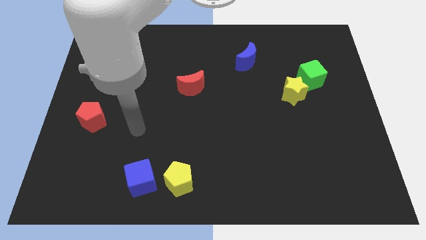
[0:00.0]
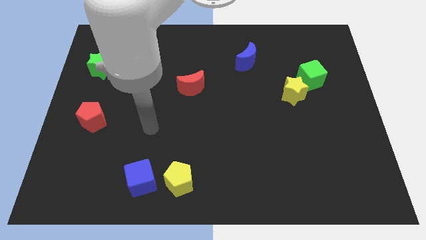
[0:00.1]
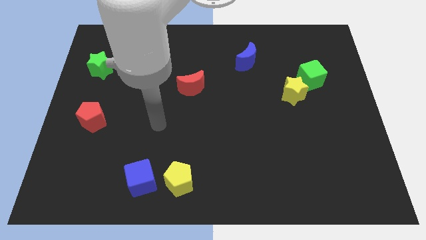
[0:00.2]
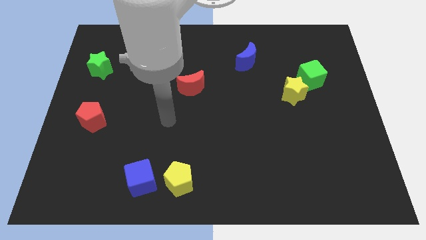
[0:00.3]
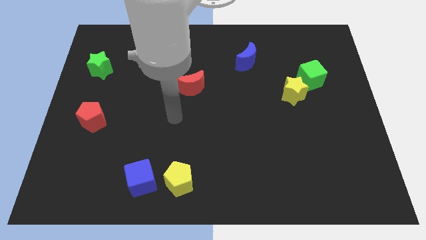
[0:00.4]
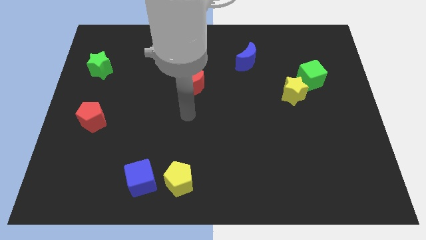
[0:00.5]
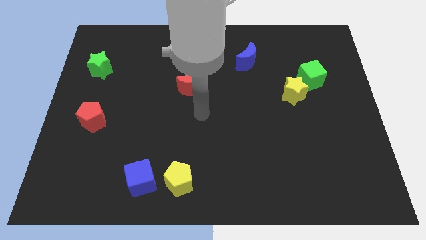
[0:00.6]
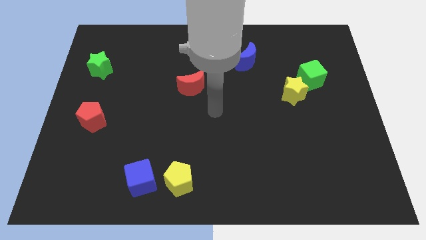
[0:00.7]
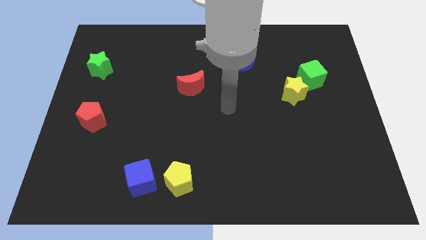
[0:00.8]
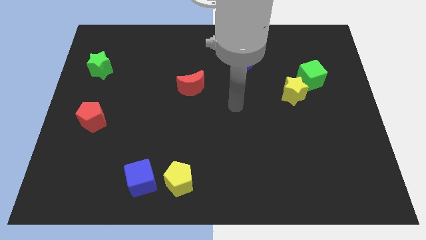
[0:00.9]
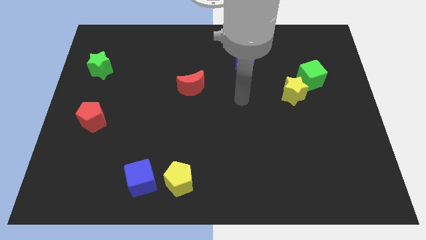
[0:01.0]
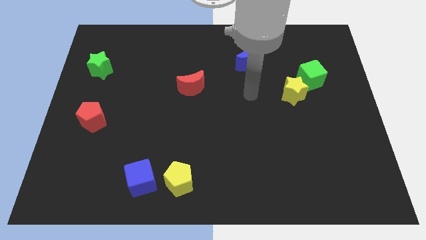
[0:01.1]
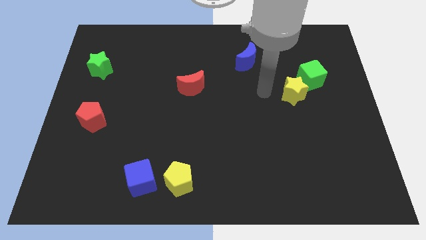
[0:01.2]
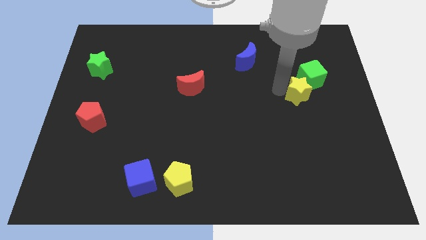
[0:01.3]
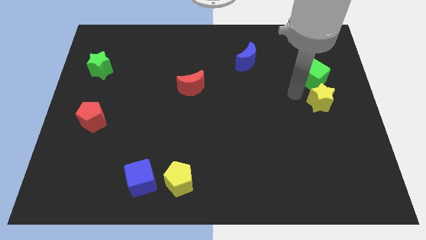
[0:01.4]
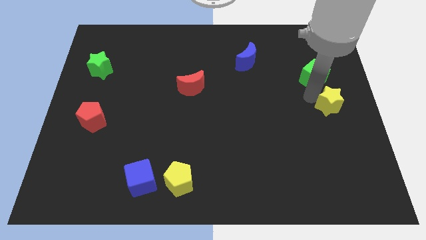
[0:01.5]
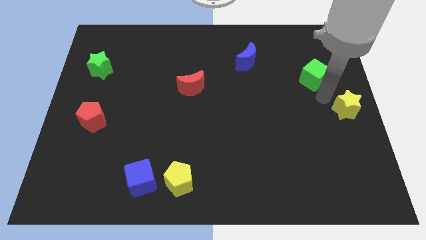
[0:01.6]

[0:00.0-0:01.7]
move the green cube away from the yellow star

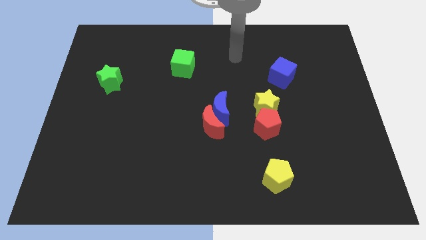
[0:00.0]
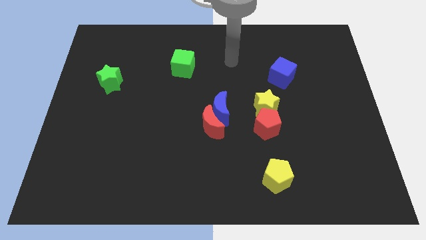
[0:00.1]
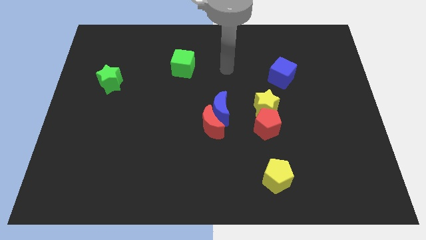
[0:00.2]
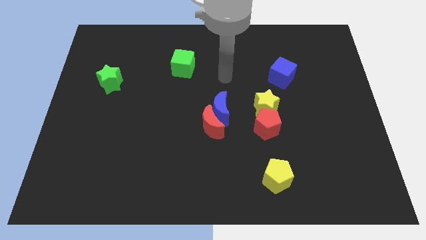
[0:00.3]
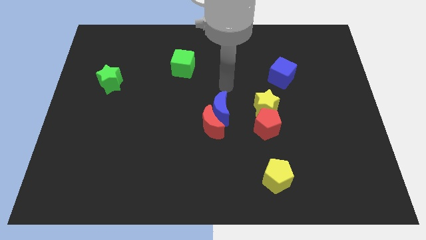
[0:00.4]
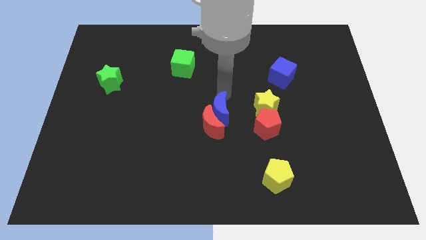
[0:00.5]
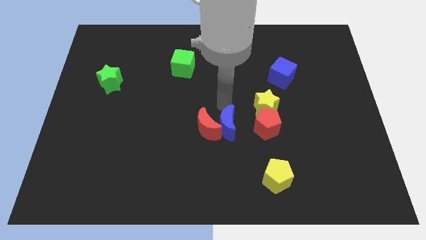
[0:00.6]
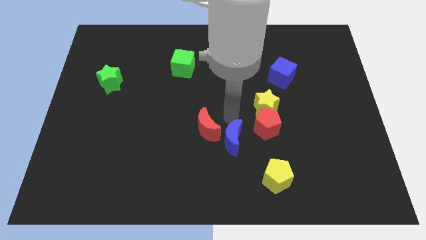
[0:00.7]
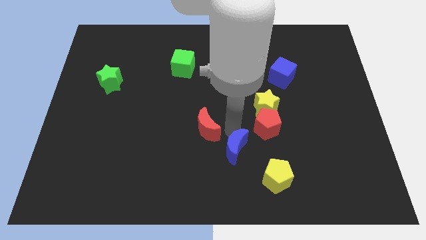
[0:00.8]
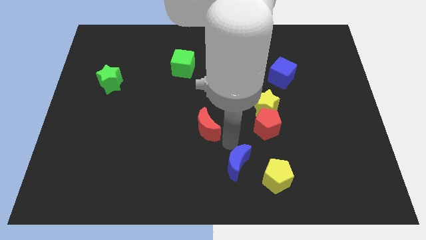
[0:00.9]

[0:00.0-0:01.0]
separate the red moon from the blue moon

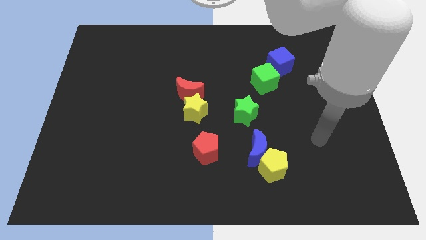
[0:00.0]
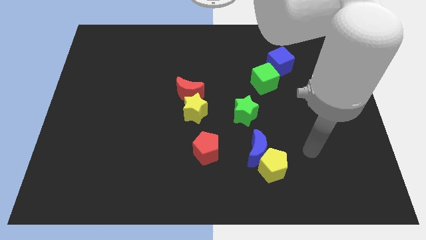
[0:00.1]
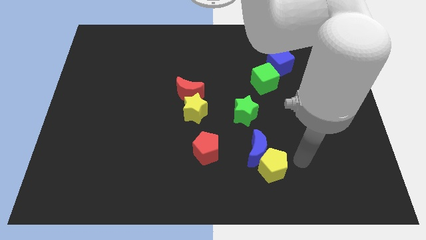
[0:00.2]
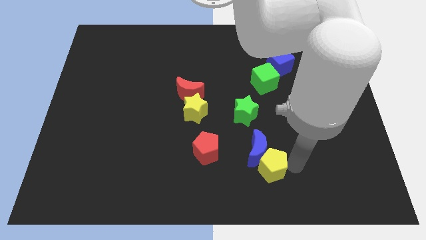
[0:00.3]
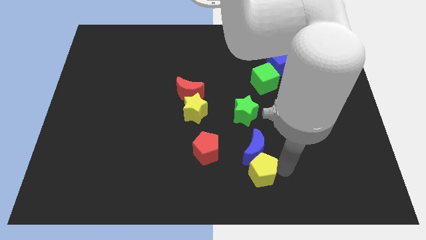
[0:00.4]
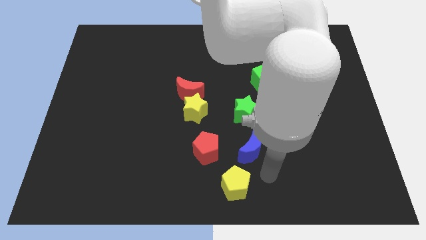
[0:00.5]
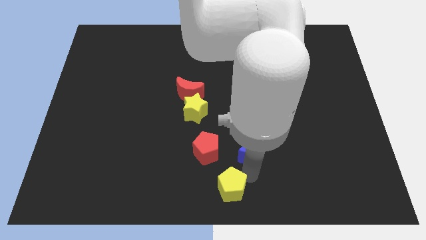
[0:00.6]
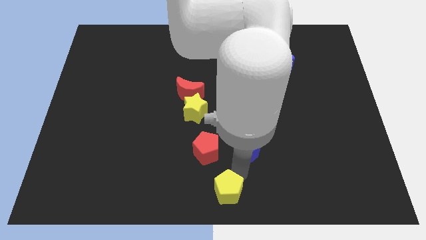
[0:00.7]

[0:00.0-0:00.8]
separate the blue moon from the yellow pentagon

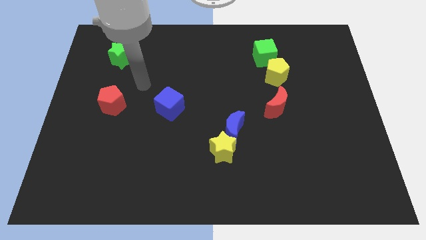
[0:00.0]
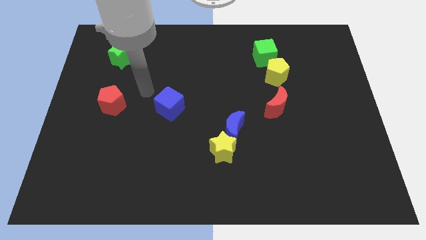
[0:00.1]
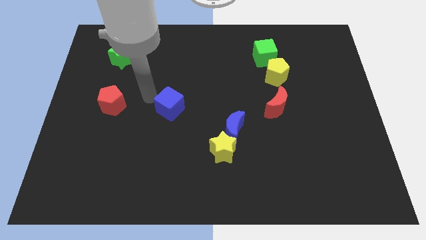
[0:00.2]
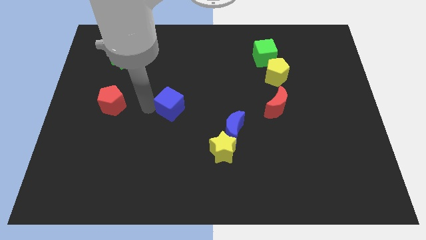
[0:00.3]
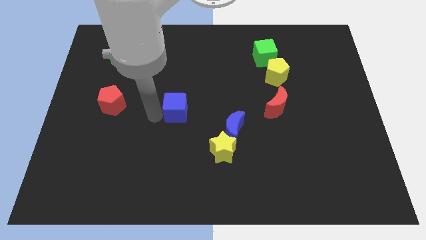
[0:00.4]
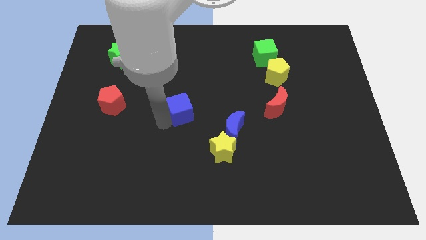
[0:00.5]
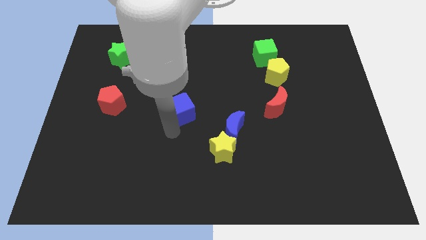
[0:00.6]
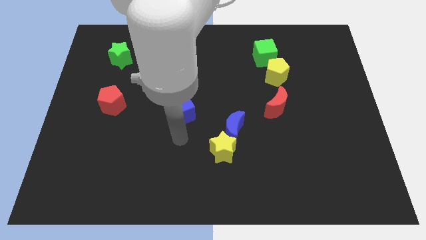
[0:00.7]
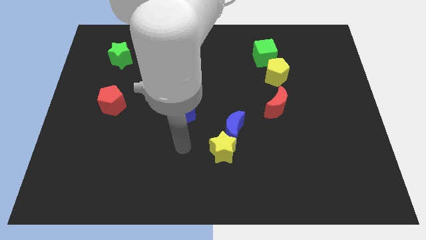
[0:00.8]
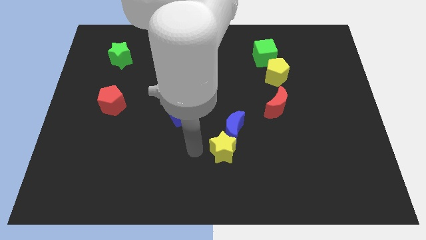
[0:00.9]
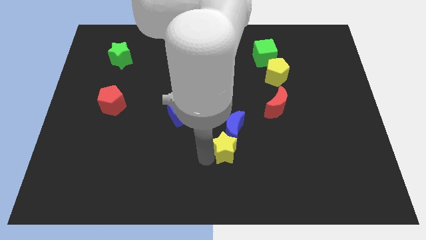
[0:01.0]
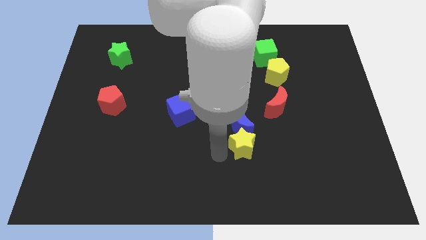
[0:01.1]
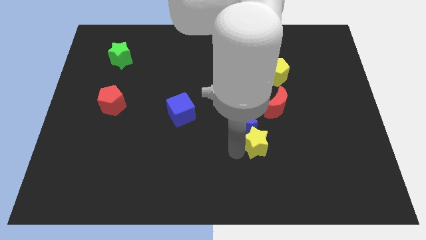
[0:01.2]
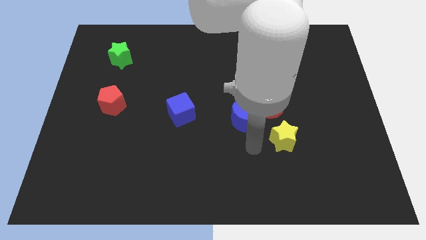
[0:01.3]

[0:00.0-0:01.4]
pull the blue moon apart from the yellow star

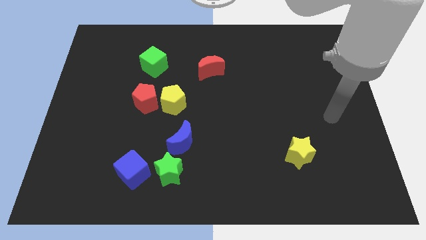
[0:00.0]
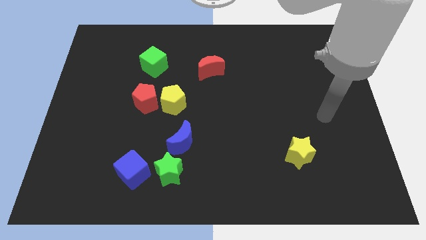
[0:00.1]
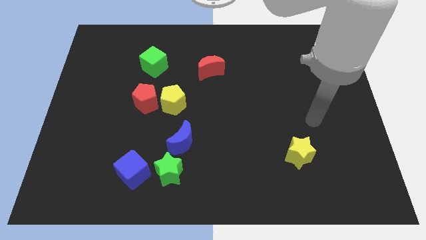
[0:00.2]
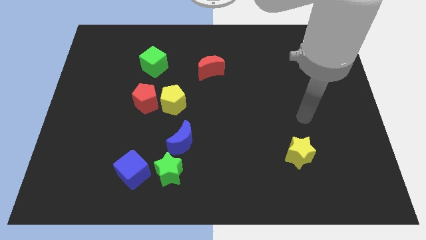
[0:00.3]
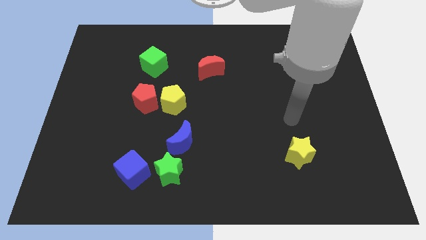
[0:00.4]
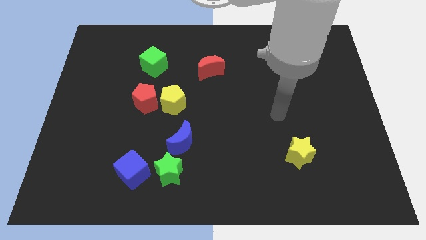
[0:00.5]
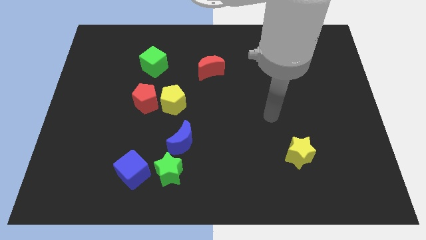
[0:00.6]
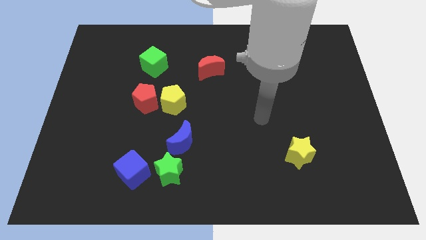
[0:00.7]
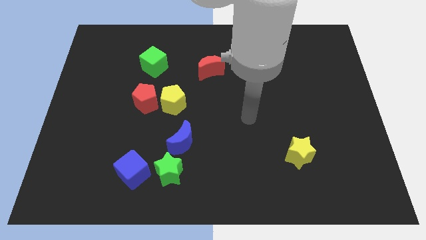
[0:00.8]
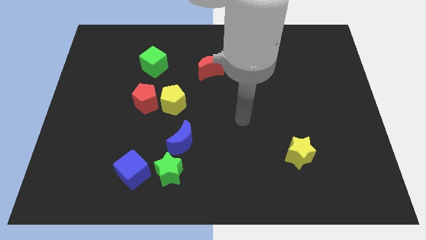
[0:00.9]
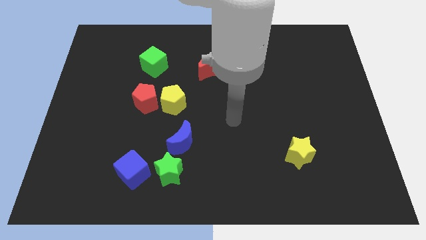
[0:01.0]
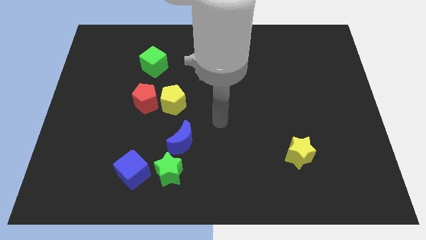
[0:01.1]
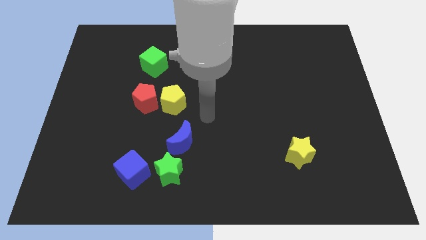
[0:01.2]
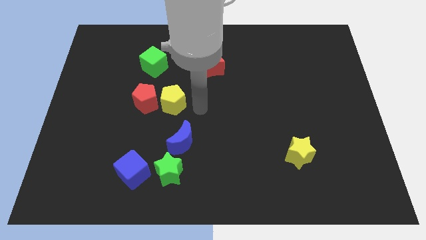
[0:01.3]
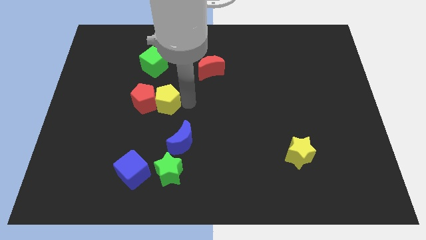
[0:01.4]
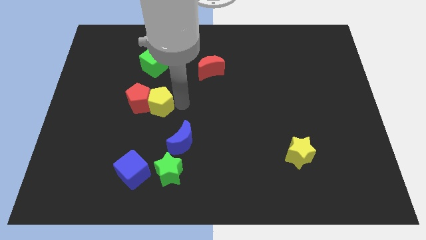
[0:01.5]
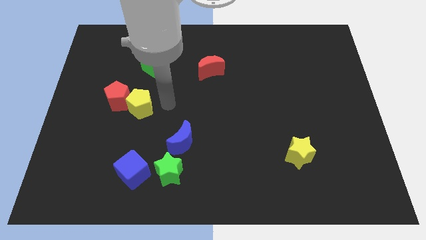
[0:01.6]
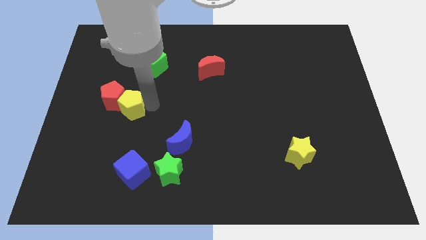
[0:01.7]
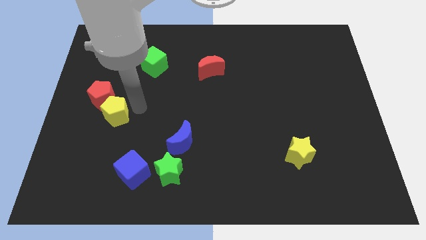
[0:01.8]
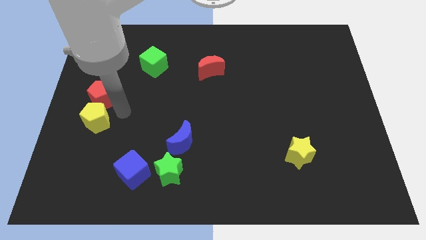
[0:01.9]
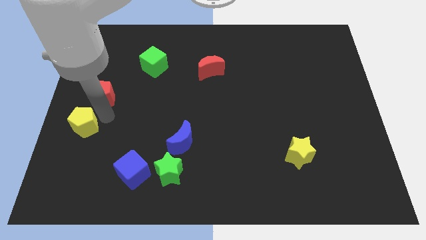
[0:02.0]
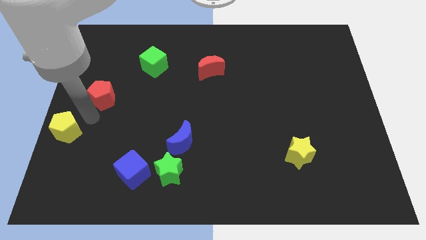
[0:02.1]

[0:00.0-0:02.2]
pull the red pentagon apart from the yellow pentagon

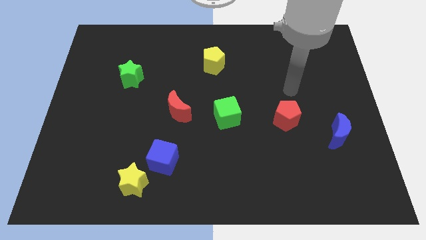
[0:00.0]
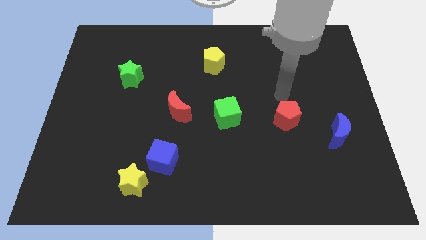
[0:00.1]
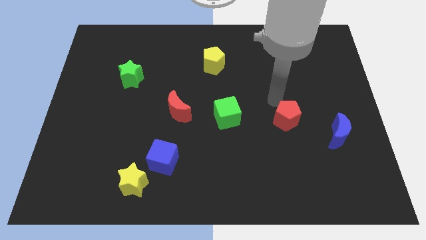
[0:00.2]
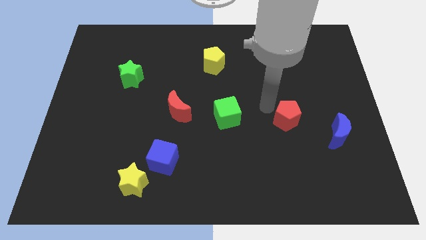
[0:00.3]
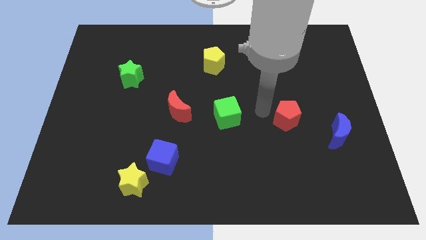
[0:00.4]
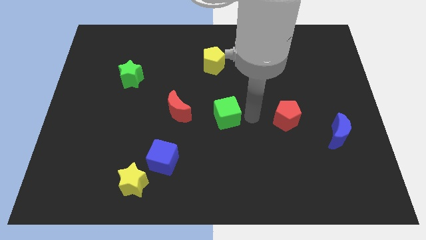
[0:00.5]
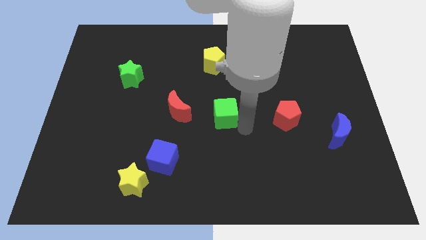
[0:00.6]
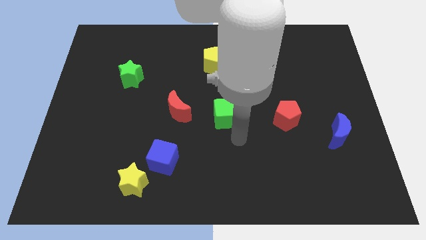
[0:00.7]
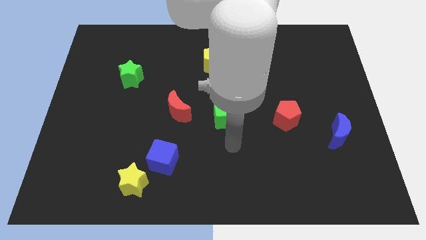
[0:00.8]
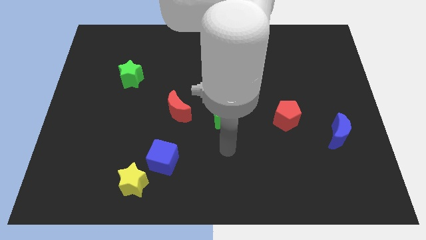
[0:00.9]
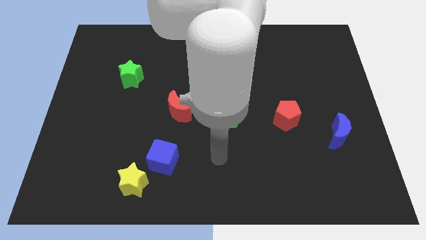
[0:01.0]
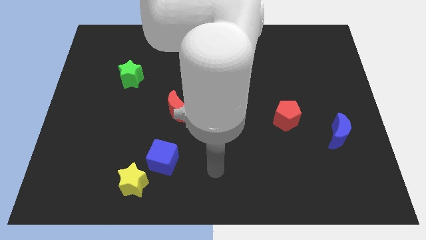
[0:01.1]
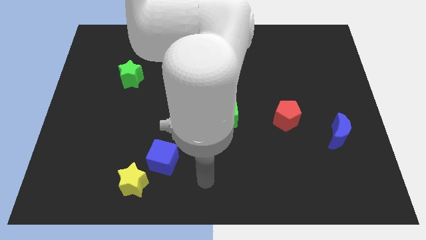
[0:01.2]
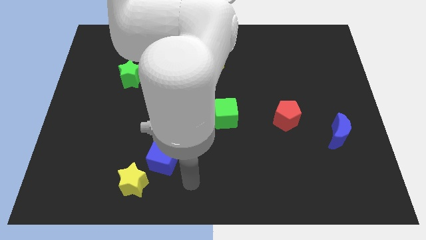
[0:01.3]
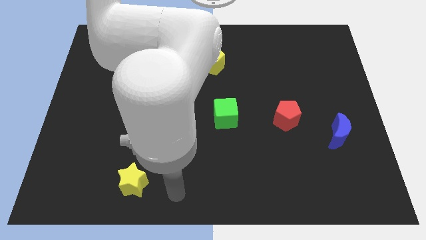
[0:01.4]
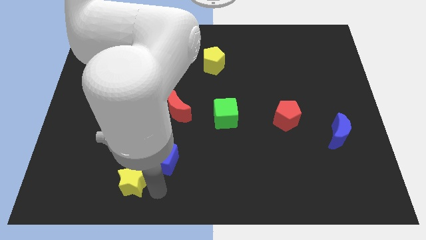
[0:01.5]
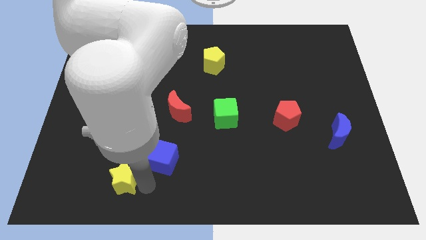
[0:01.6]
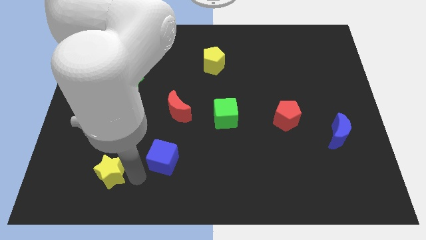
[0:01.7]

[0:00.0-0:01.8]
pull the blue cube apart from the yellow star

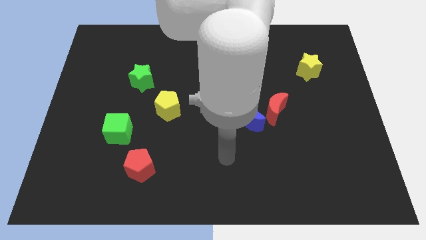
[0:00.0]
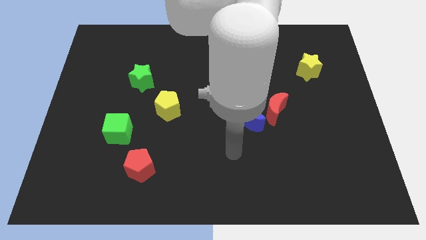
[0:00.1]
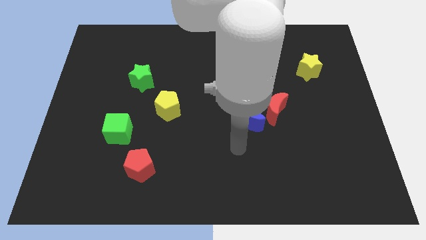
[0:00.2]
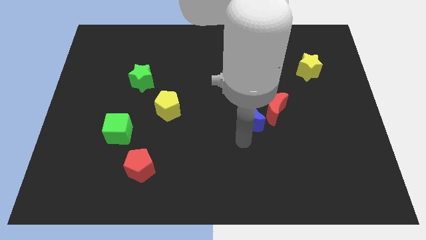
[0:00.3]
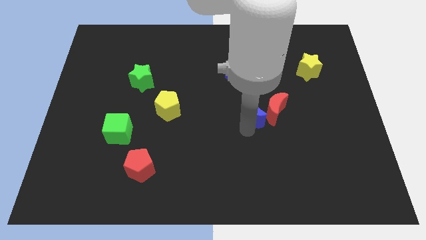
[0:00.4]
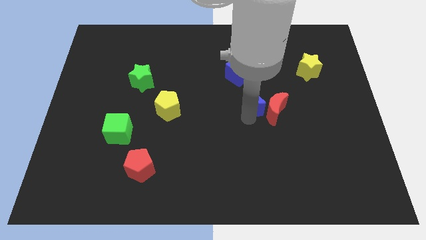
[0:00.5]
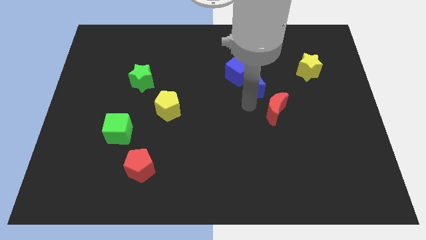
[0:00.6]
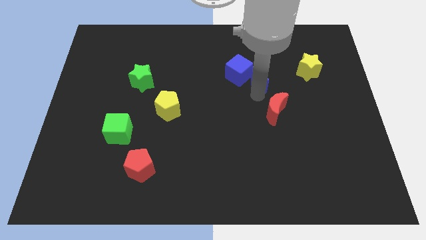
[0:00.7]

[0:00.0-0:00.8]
pull the red moon apart from the blue moon
